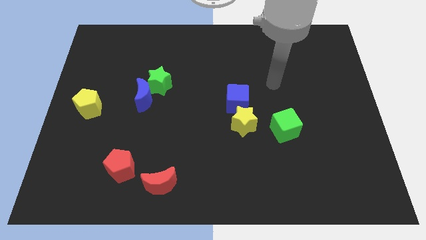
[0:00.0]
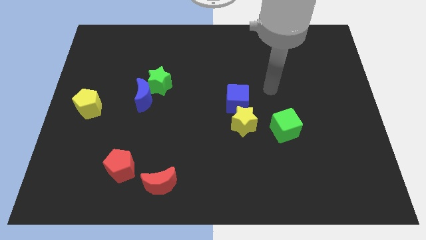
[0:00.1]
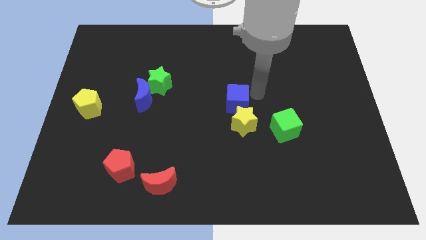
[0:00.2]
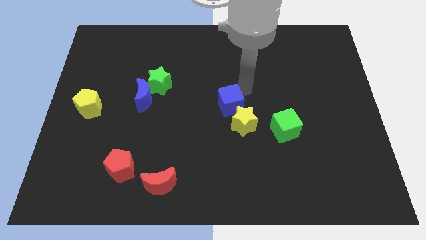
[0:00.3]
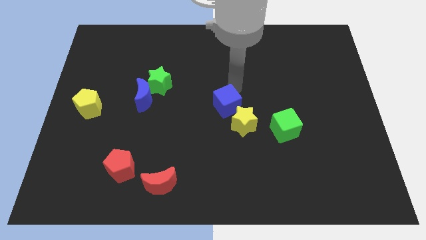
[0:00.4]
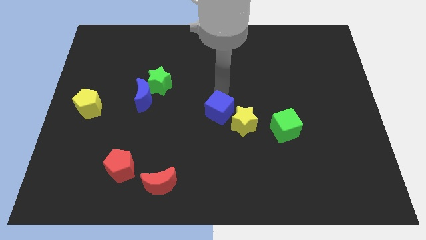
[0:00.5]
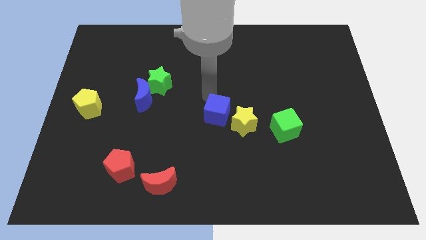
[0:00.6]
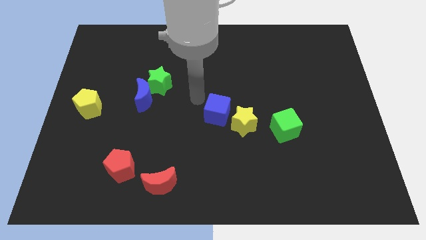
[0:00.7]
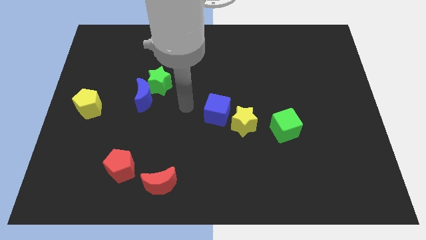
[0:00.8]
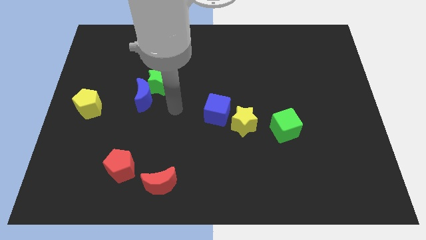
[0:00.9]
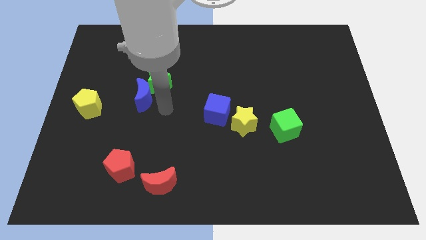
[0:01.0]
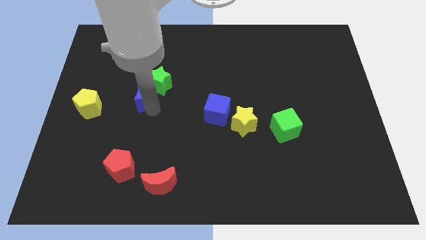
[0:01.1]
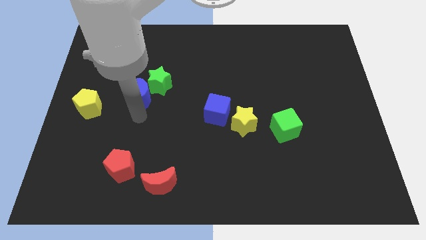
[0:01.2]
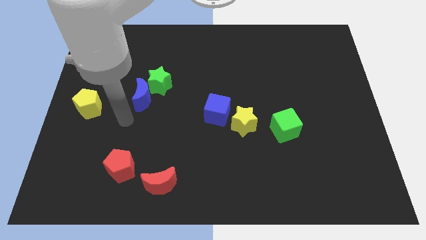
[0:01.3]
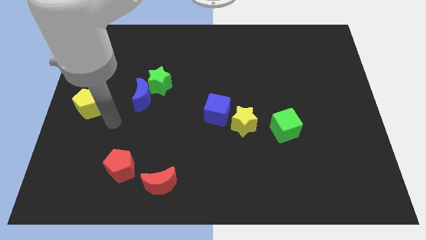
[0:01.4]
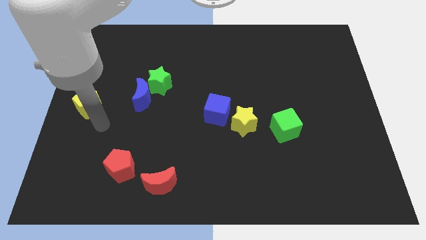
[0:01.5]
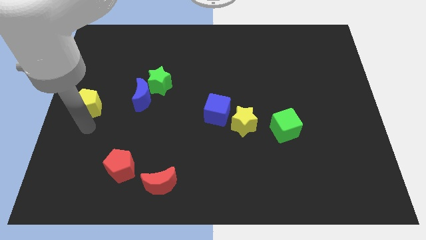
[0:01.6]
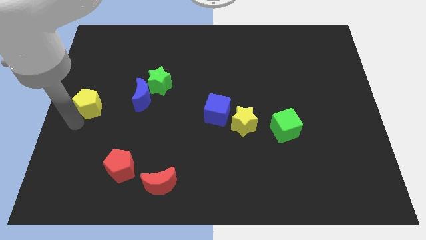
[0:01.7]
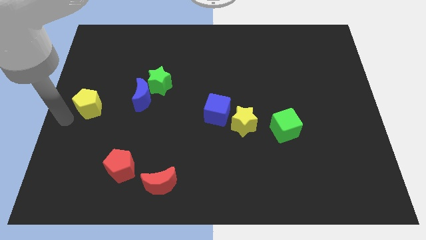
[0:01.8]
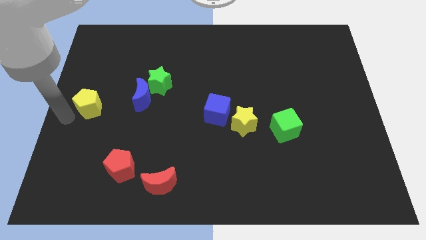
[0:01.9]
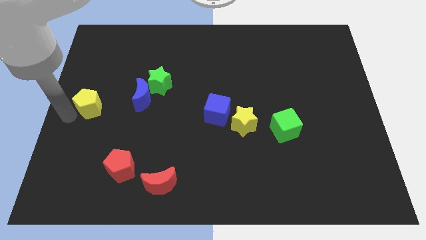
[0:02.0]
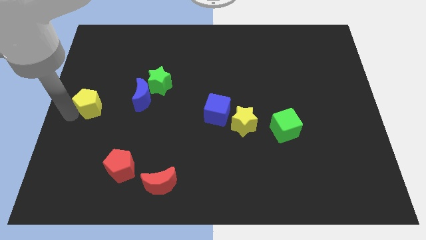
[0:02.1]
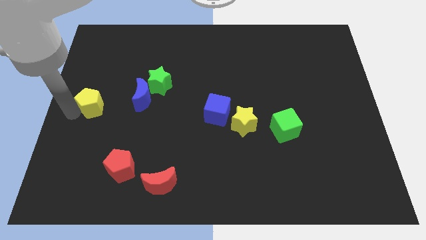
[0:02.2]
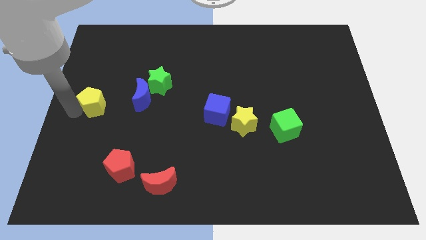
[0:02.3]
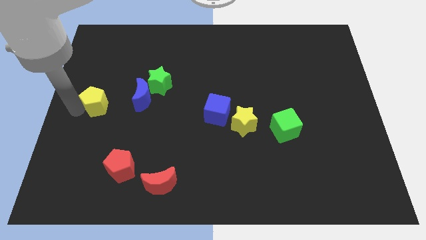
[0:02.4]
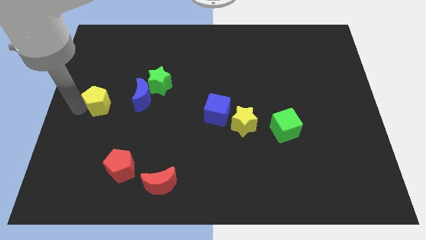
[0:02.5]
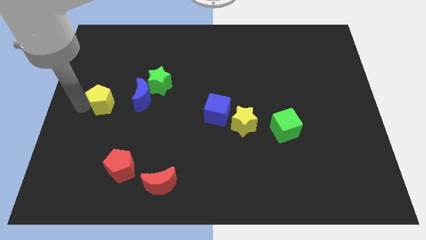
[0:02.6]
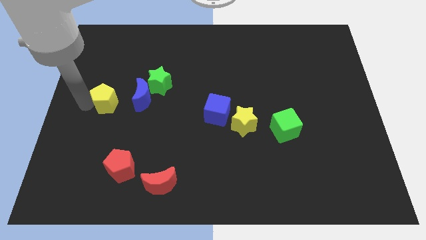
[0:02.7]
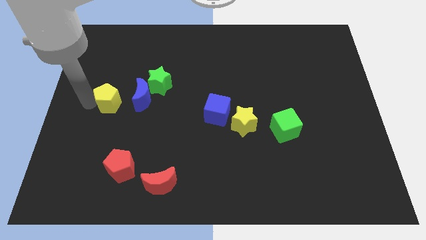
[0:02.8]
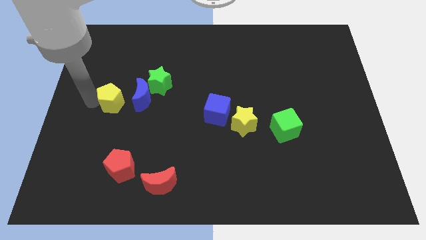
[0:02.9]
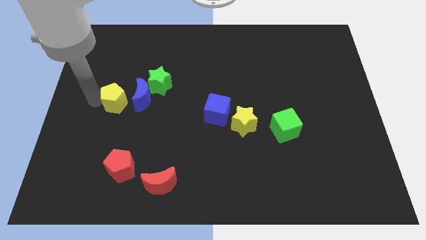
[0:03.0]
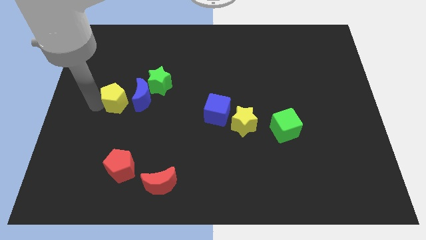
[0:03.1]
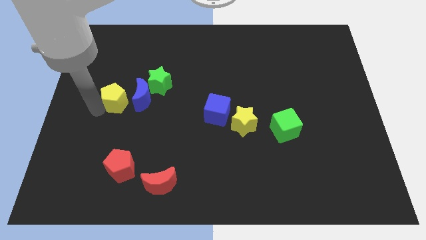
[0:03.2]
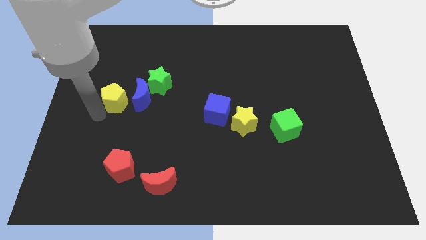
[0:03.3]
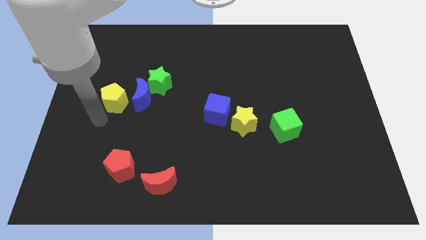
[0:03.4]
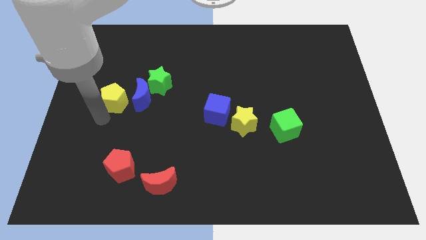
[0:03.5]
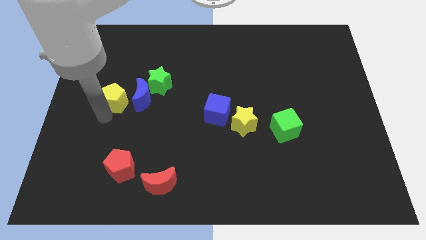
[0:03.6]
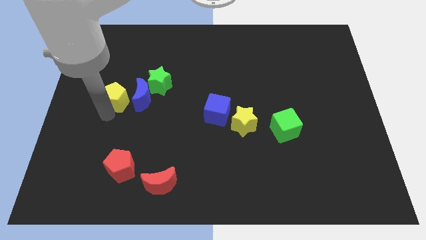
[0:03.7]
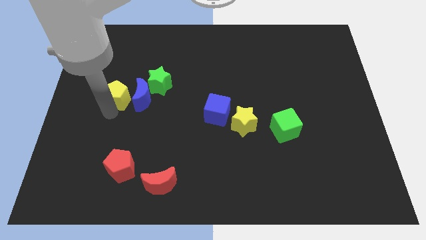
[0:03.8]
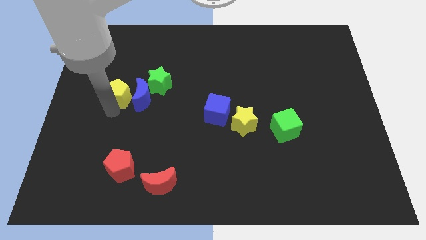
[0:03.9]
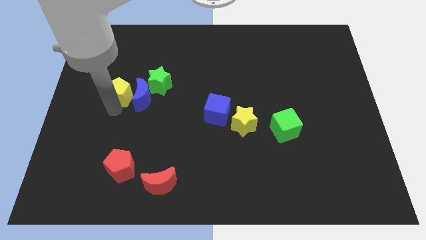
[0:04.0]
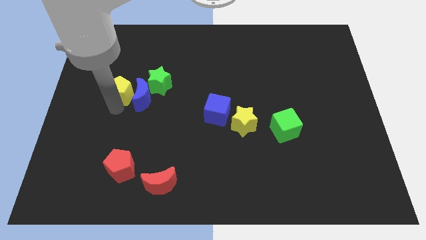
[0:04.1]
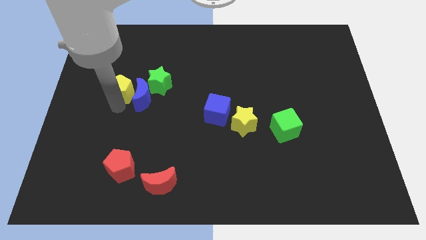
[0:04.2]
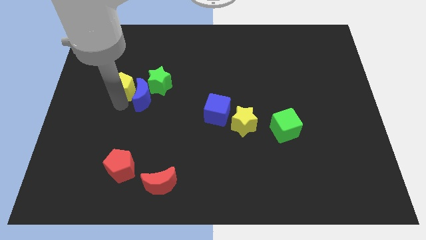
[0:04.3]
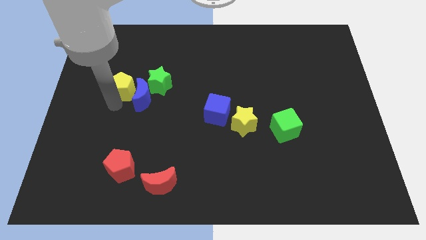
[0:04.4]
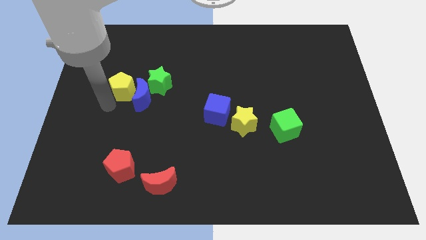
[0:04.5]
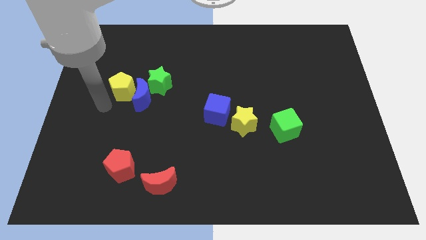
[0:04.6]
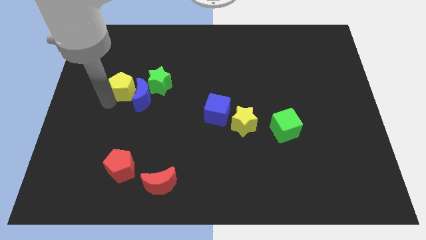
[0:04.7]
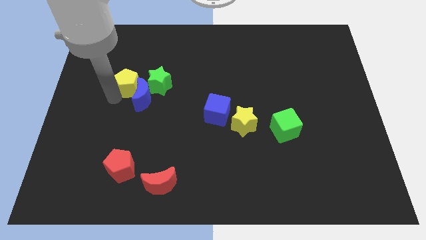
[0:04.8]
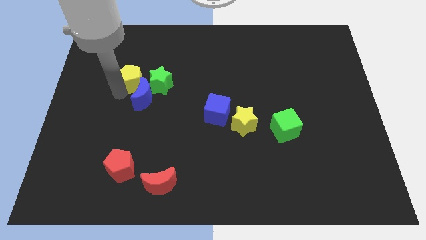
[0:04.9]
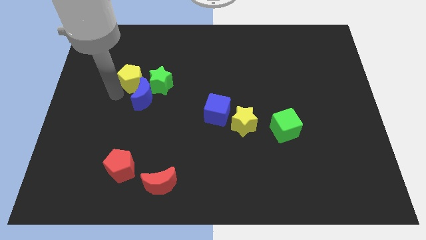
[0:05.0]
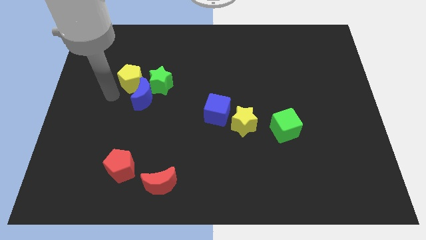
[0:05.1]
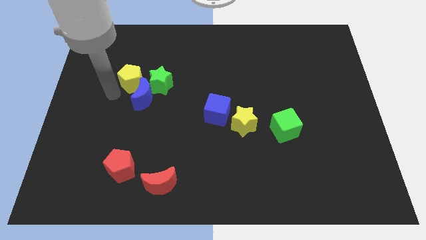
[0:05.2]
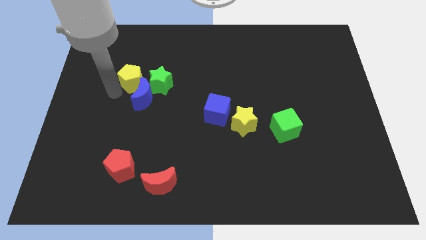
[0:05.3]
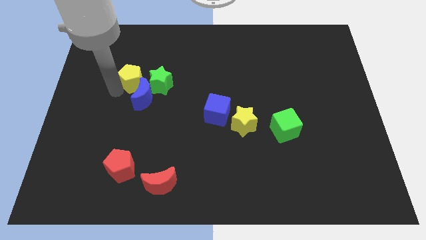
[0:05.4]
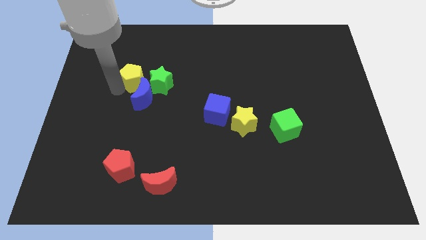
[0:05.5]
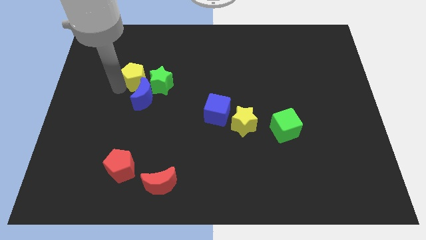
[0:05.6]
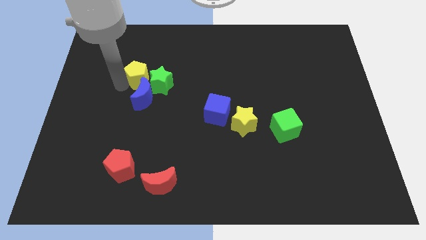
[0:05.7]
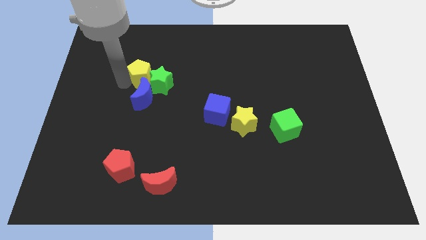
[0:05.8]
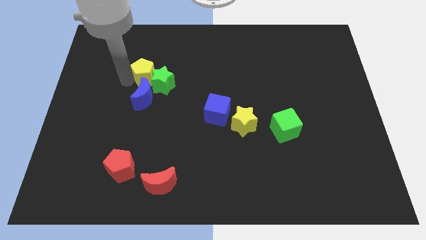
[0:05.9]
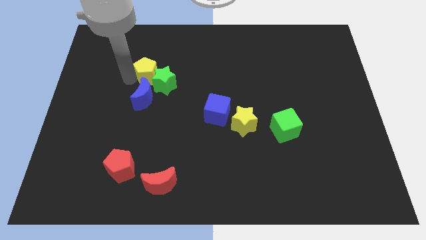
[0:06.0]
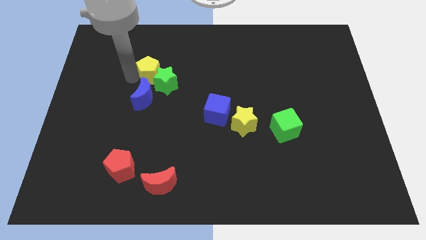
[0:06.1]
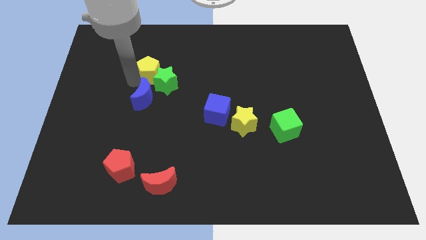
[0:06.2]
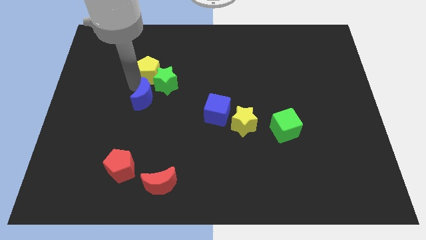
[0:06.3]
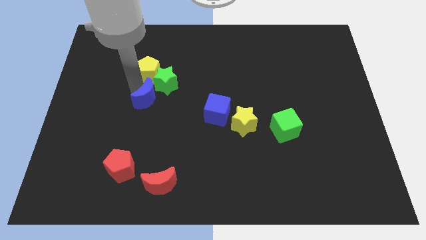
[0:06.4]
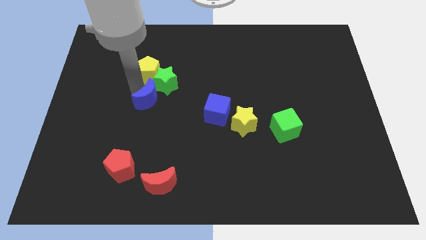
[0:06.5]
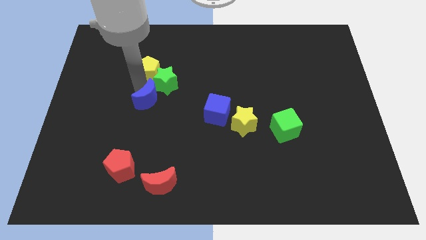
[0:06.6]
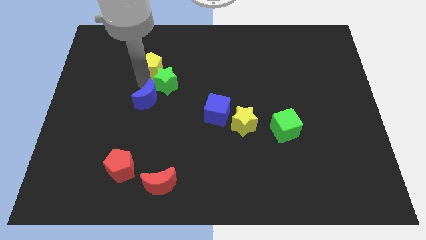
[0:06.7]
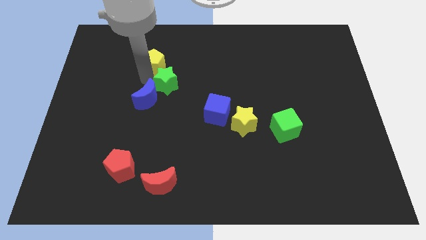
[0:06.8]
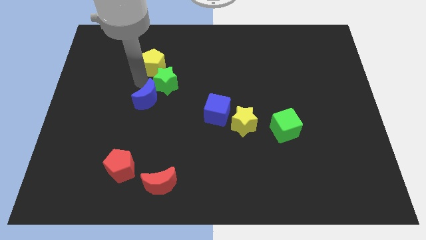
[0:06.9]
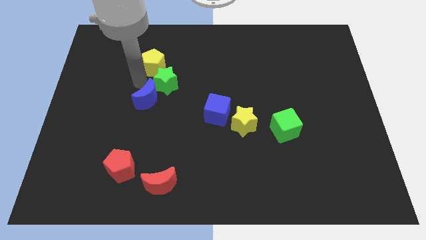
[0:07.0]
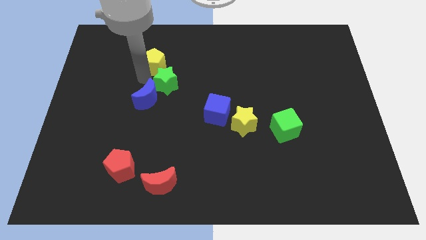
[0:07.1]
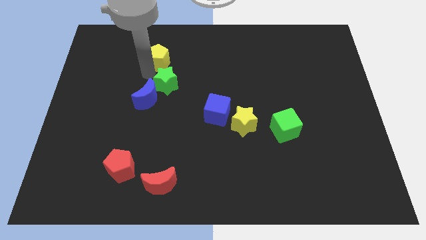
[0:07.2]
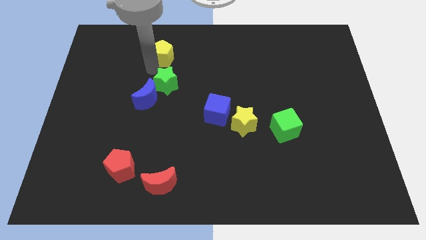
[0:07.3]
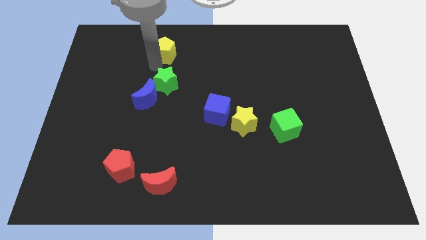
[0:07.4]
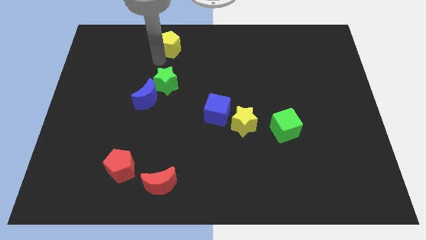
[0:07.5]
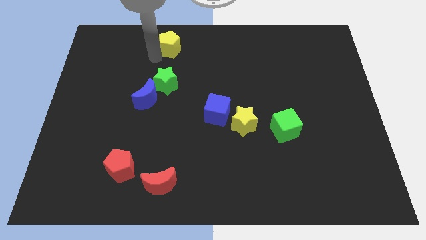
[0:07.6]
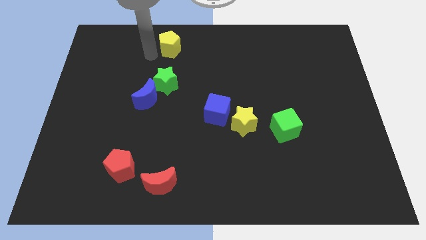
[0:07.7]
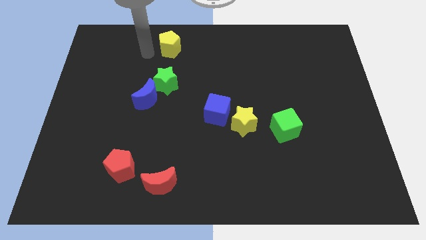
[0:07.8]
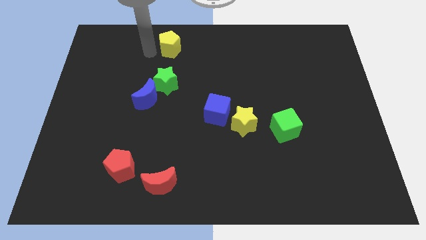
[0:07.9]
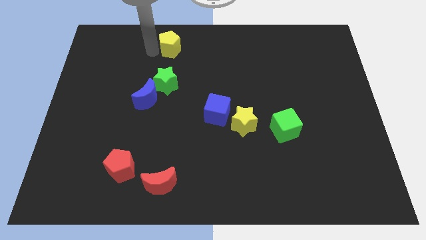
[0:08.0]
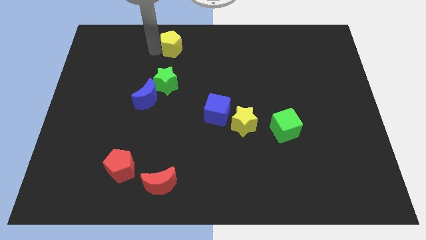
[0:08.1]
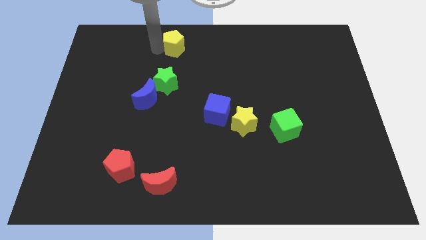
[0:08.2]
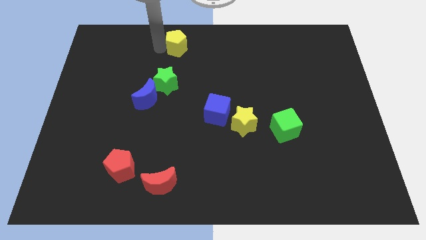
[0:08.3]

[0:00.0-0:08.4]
put the yellow pentagon to the top side
